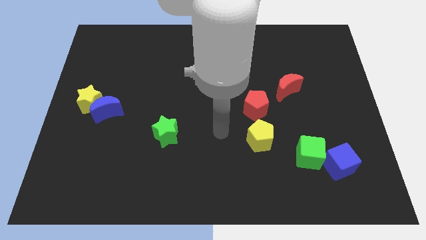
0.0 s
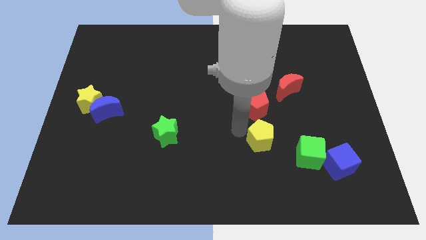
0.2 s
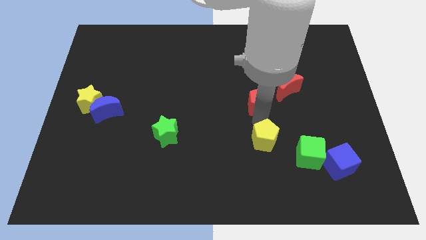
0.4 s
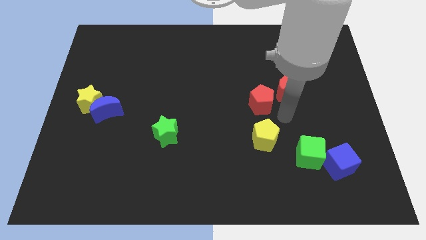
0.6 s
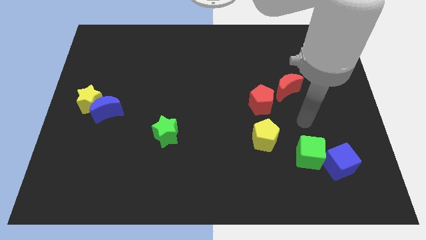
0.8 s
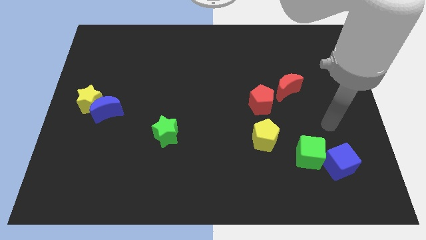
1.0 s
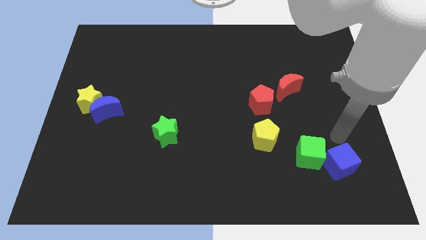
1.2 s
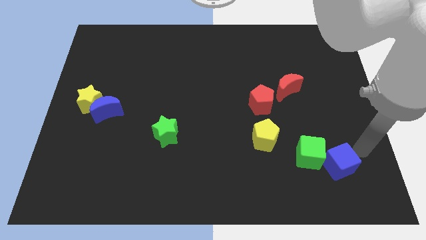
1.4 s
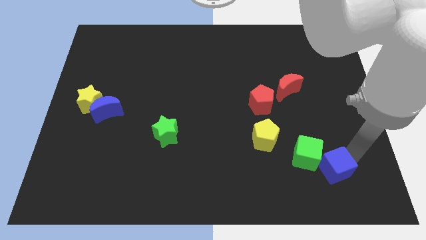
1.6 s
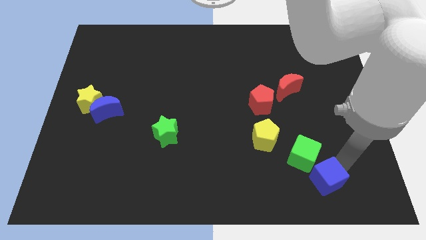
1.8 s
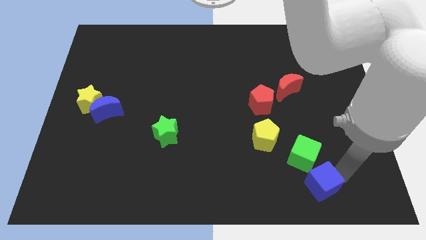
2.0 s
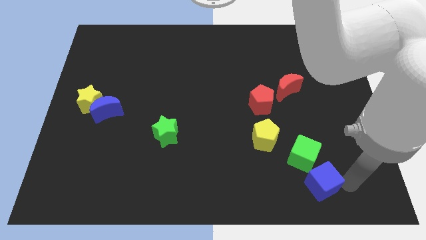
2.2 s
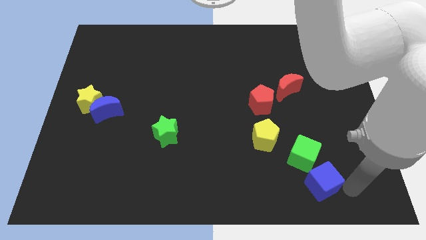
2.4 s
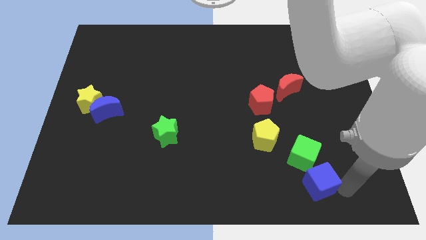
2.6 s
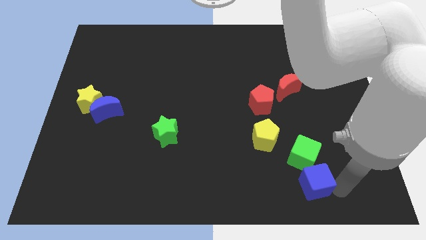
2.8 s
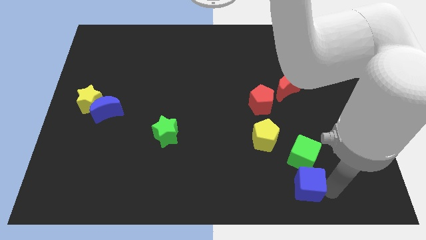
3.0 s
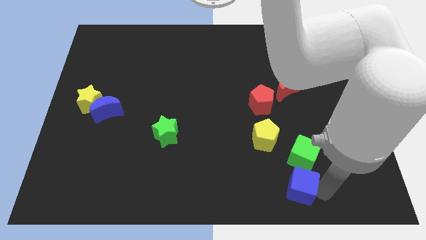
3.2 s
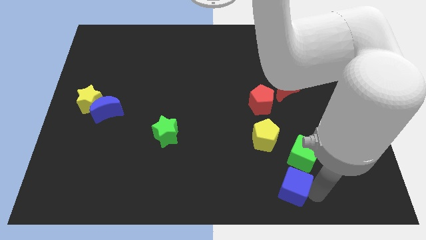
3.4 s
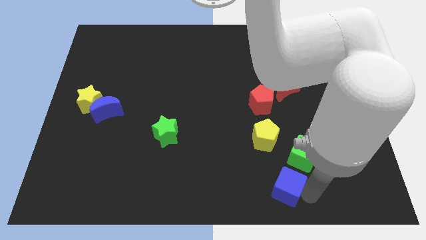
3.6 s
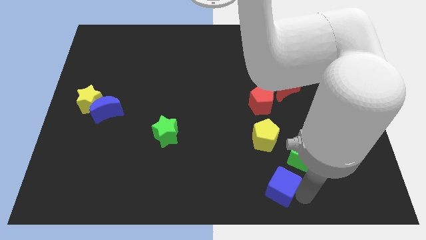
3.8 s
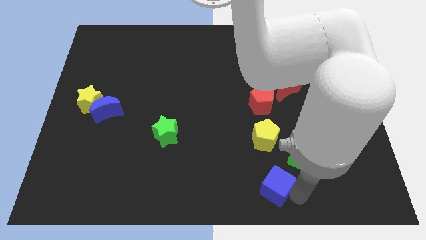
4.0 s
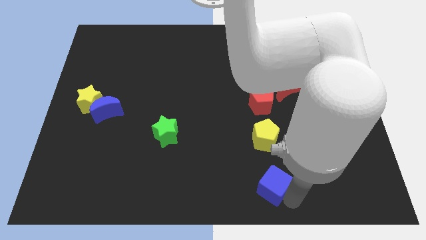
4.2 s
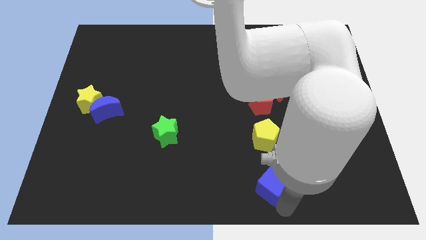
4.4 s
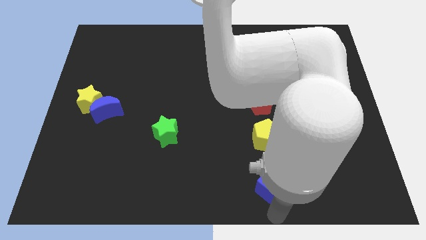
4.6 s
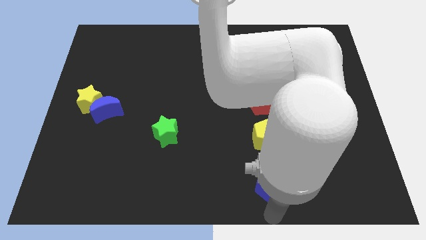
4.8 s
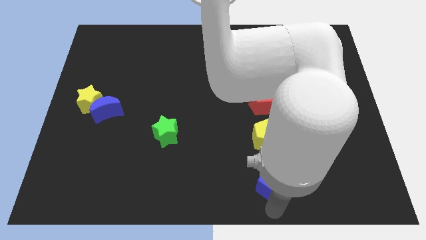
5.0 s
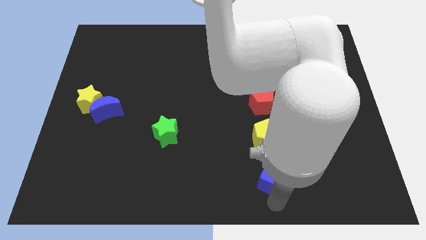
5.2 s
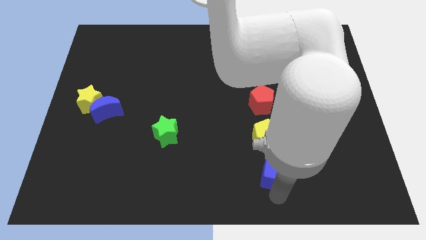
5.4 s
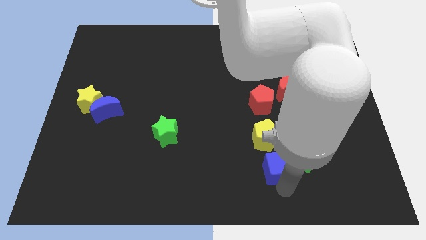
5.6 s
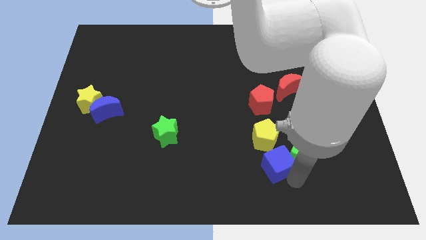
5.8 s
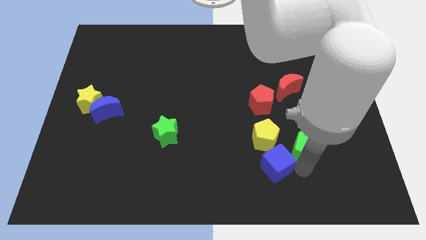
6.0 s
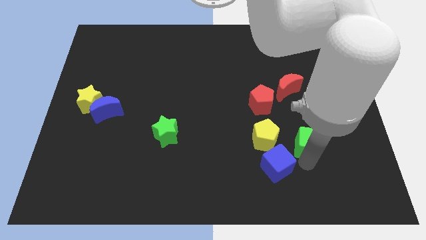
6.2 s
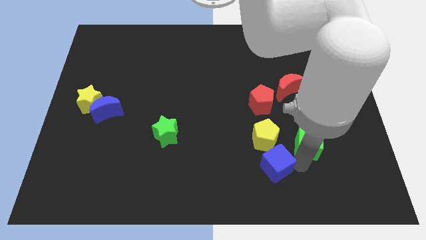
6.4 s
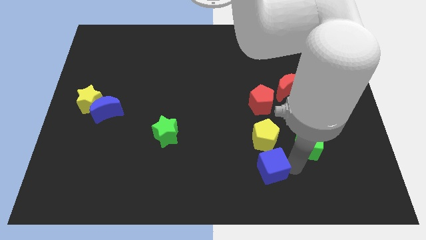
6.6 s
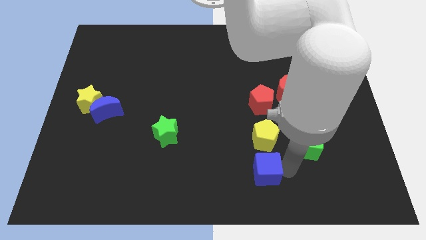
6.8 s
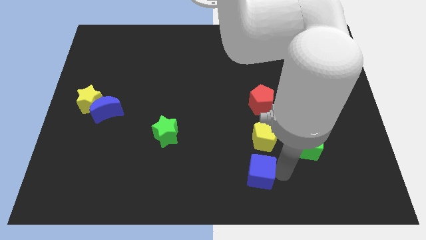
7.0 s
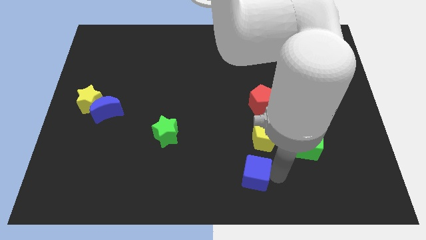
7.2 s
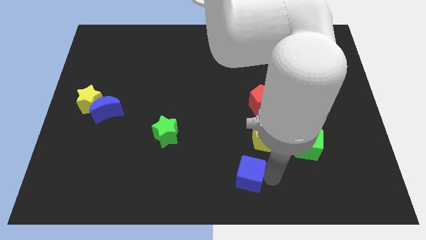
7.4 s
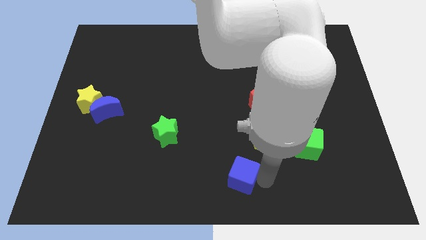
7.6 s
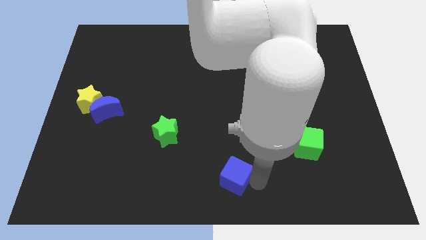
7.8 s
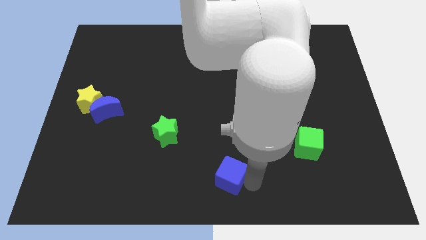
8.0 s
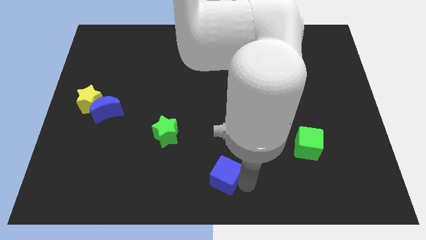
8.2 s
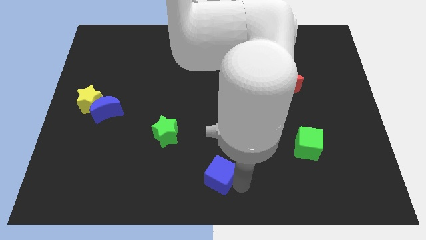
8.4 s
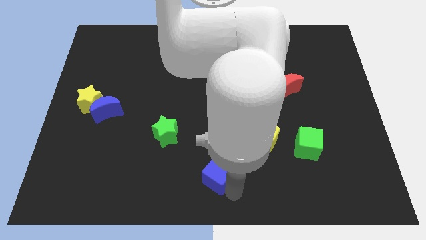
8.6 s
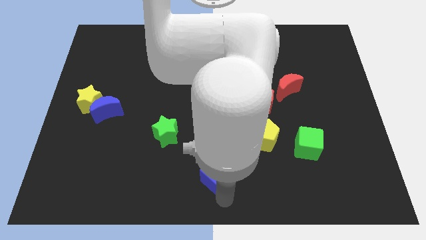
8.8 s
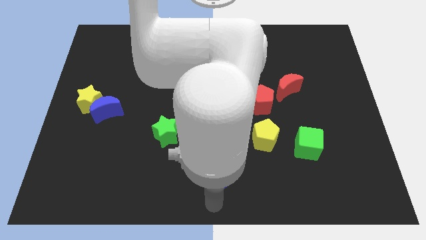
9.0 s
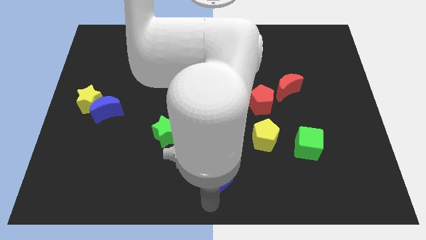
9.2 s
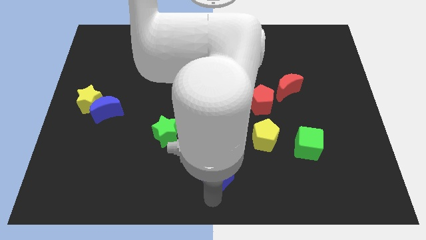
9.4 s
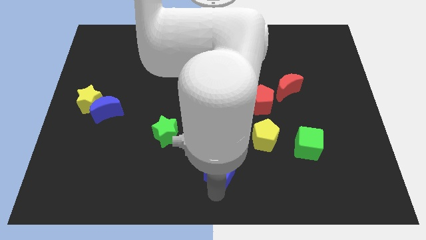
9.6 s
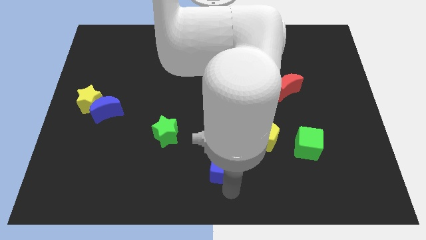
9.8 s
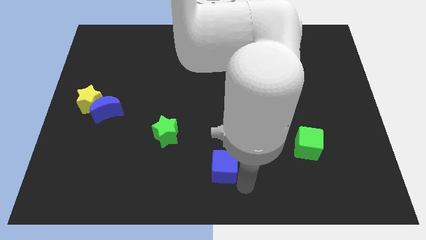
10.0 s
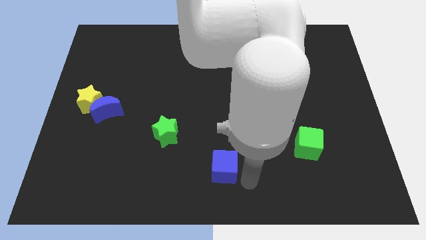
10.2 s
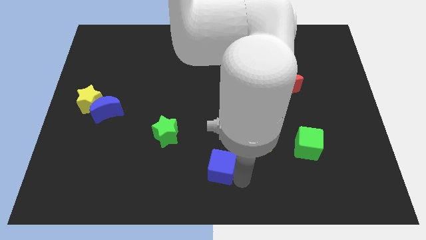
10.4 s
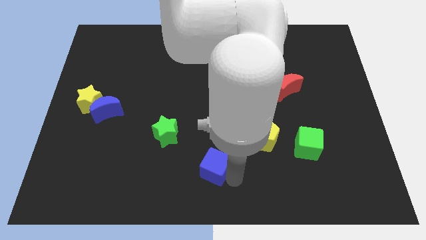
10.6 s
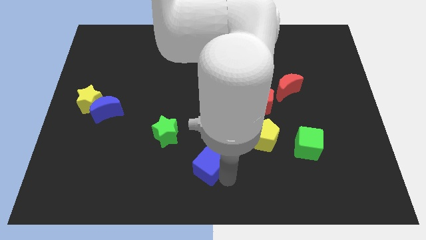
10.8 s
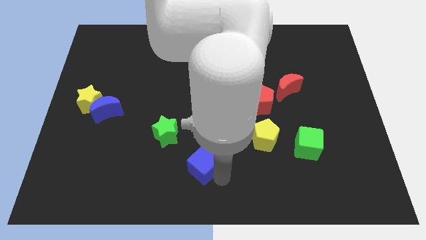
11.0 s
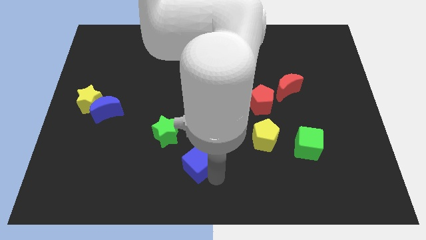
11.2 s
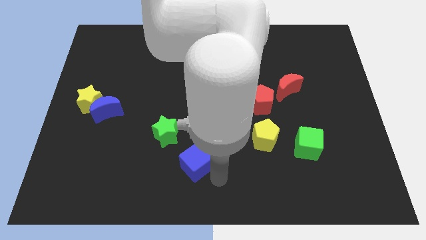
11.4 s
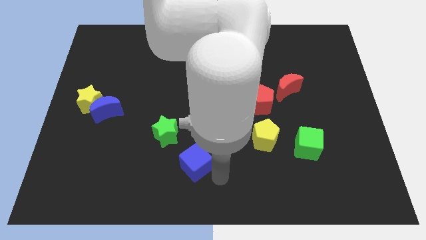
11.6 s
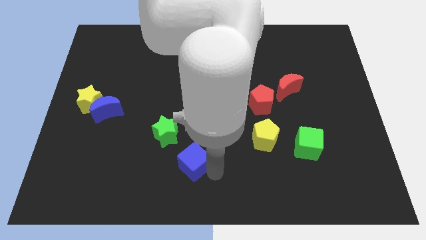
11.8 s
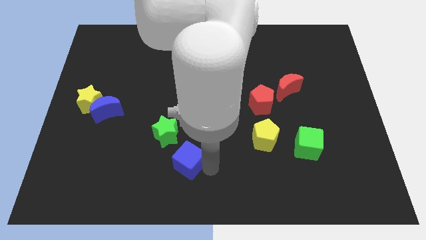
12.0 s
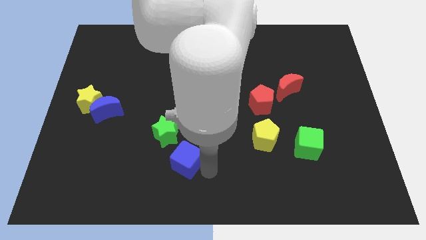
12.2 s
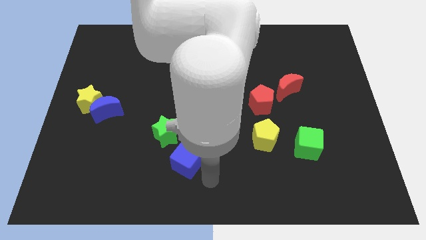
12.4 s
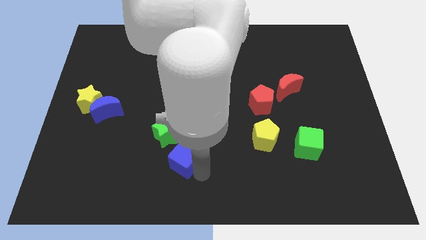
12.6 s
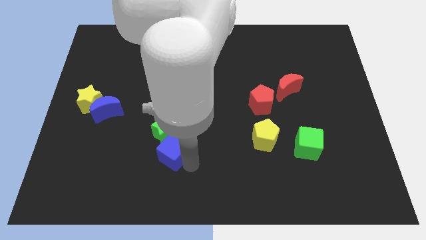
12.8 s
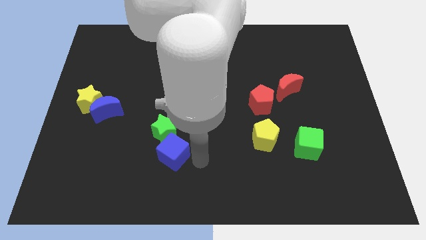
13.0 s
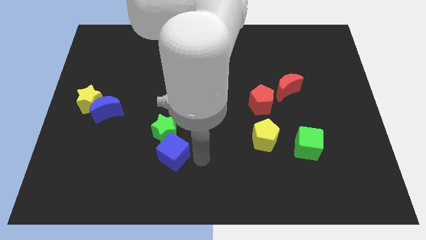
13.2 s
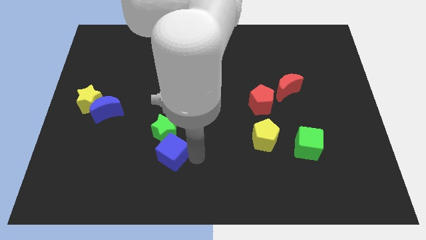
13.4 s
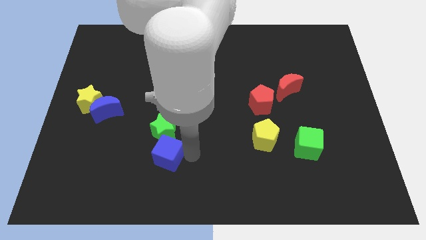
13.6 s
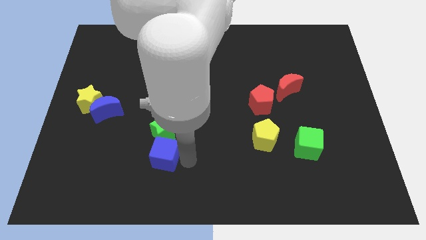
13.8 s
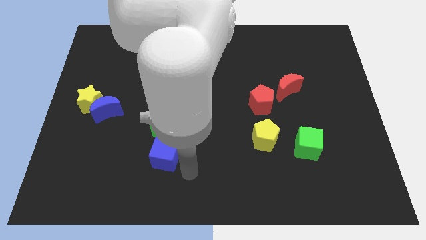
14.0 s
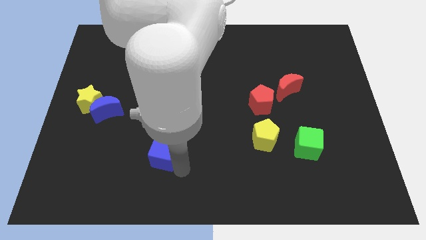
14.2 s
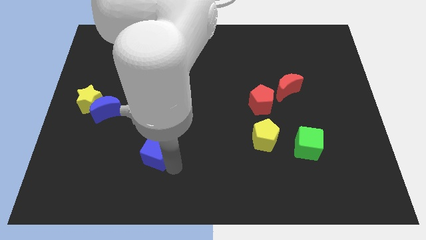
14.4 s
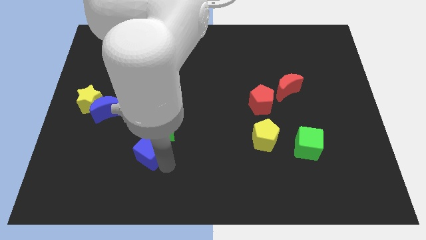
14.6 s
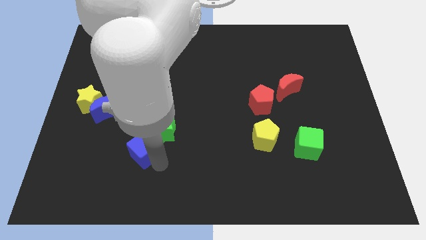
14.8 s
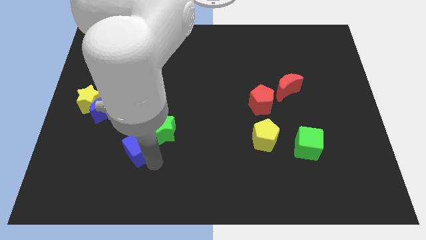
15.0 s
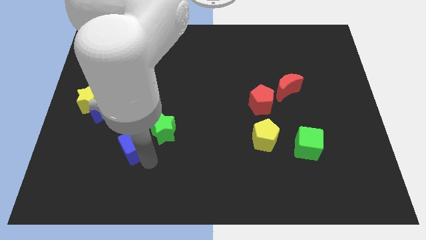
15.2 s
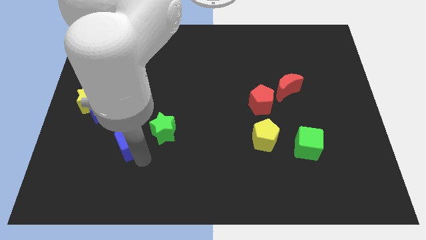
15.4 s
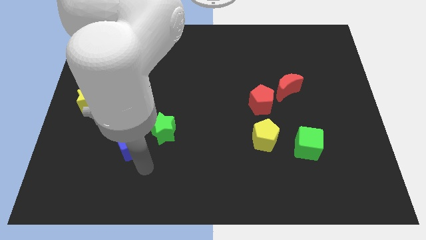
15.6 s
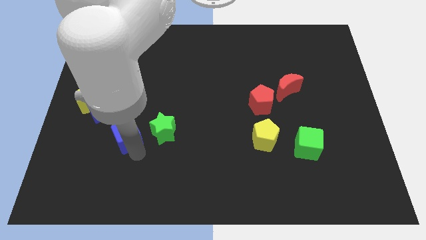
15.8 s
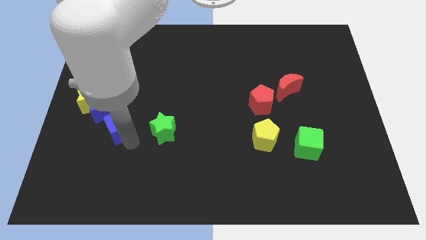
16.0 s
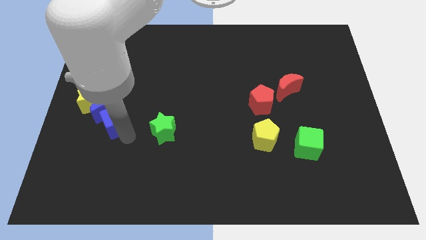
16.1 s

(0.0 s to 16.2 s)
push the blue cube close to the blue moon
